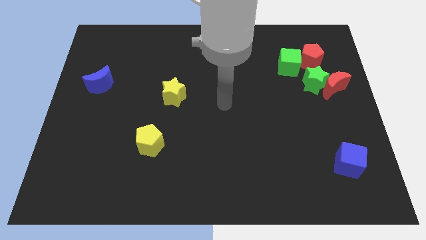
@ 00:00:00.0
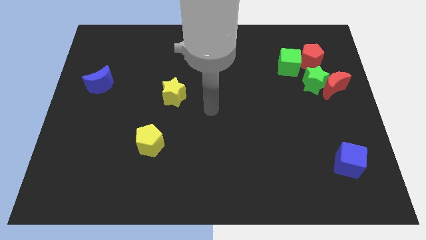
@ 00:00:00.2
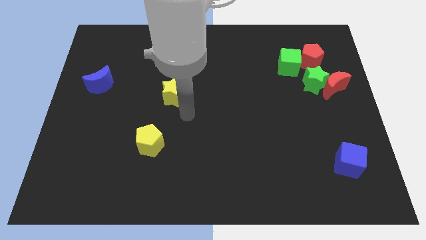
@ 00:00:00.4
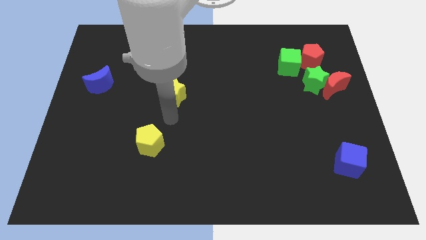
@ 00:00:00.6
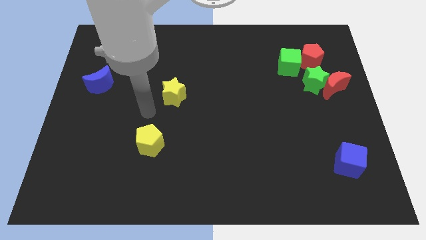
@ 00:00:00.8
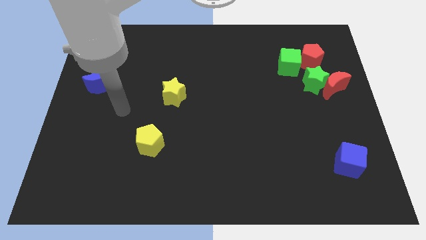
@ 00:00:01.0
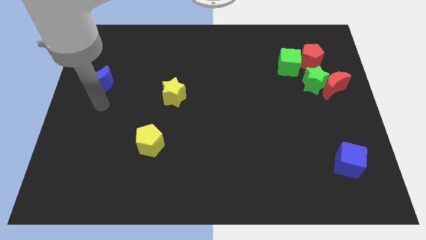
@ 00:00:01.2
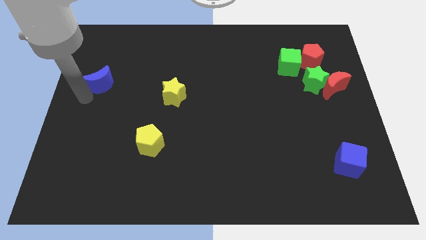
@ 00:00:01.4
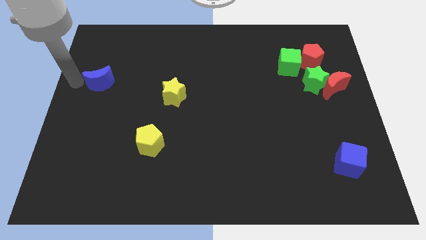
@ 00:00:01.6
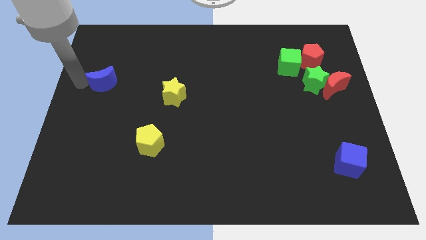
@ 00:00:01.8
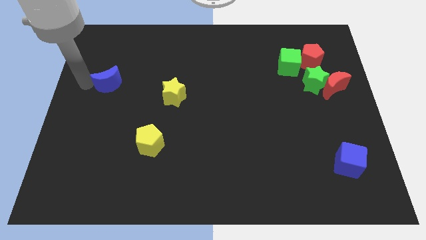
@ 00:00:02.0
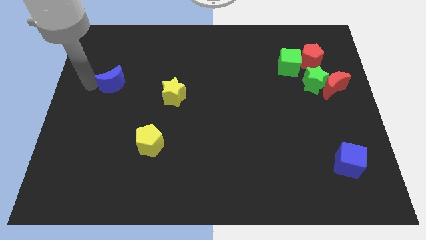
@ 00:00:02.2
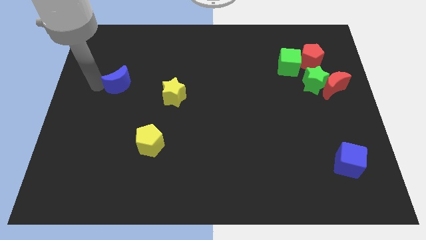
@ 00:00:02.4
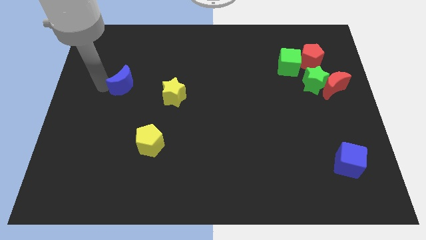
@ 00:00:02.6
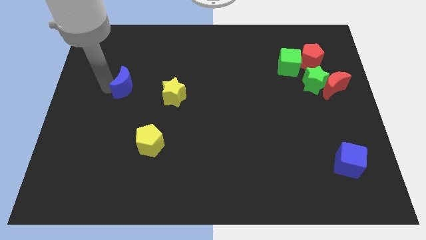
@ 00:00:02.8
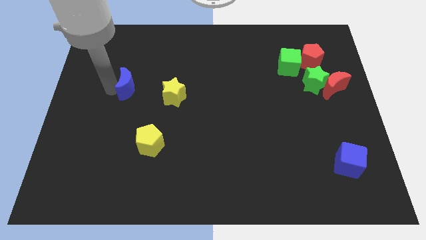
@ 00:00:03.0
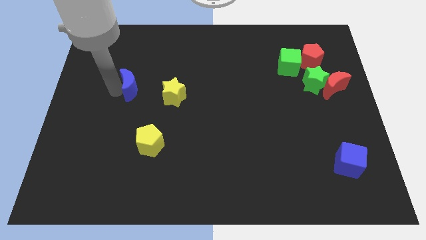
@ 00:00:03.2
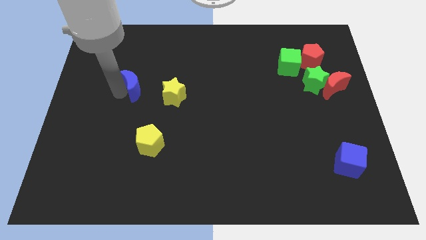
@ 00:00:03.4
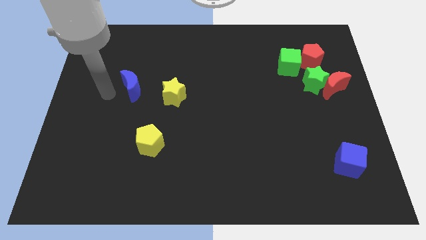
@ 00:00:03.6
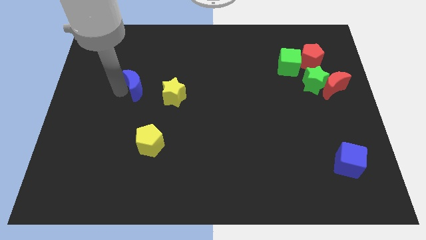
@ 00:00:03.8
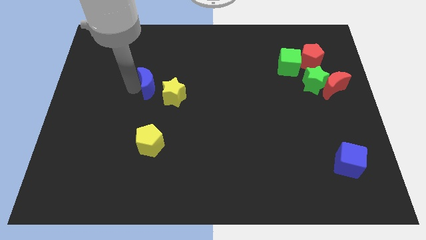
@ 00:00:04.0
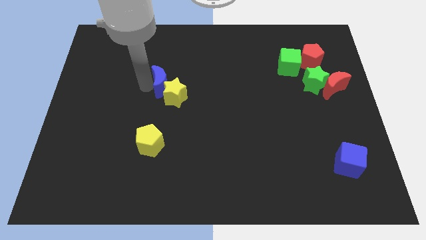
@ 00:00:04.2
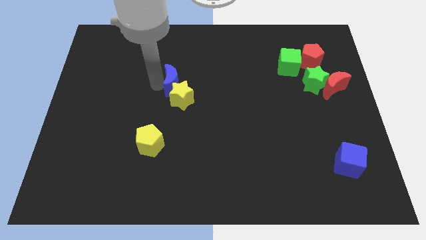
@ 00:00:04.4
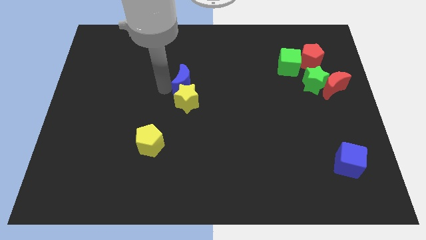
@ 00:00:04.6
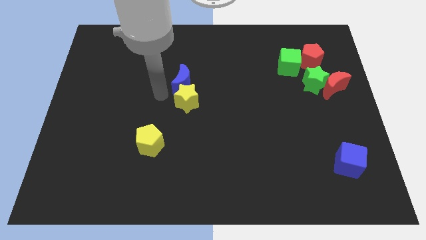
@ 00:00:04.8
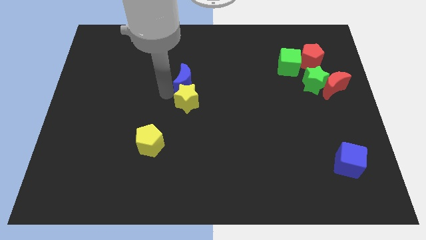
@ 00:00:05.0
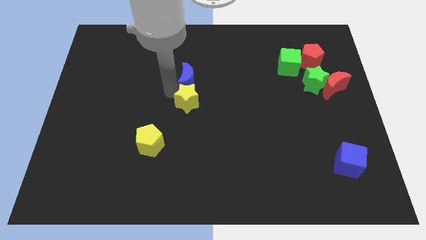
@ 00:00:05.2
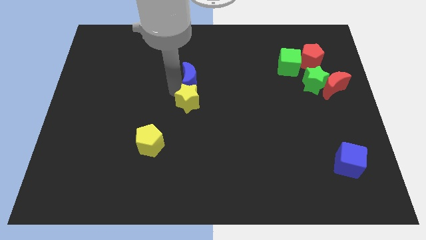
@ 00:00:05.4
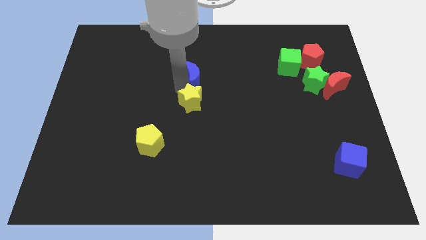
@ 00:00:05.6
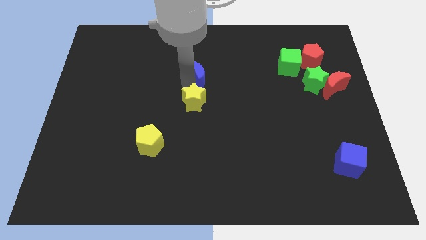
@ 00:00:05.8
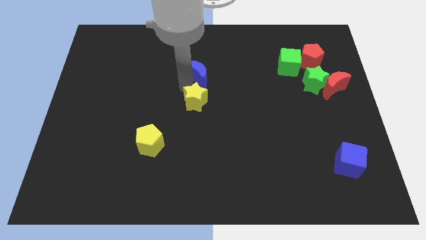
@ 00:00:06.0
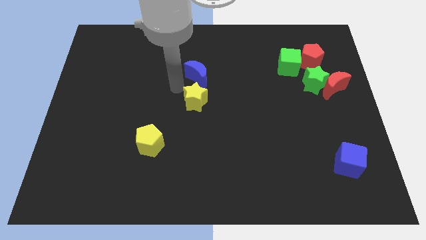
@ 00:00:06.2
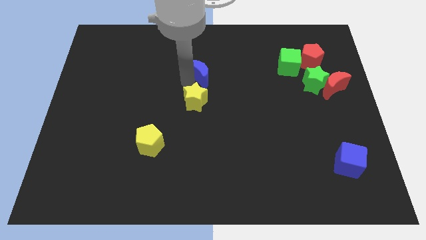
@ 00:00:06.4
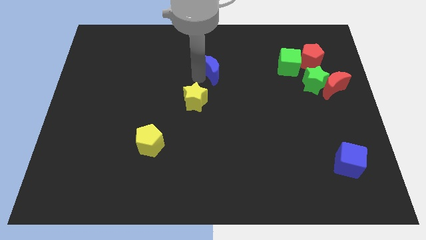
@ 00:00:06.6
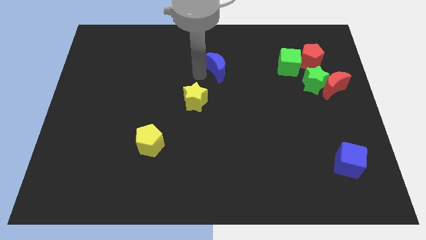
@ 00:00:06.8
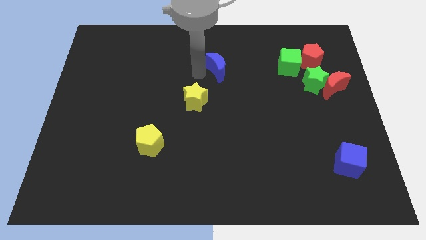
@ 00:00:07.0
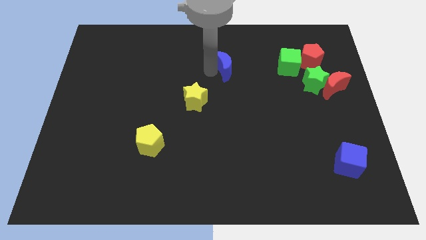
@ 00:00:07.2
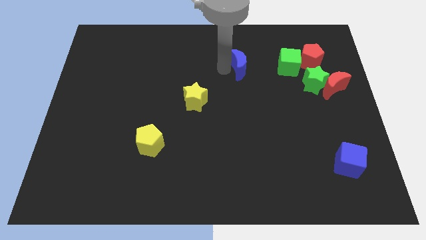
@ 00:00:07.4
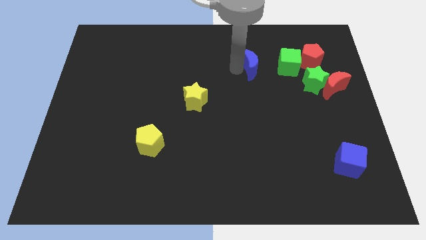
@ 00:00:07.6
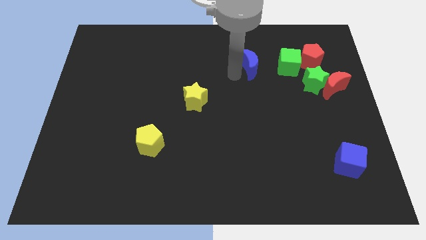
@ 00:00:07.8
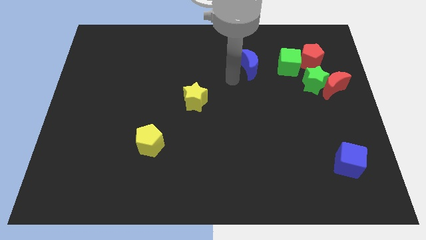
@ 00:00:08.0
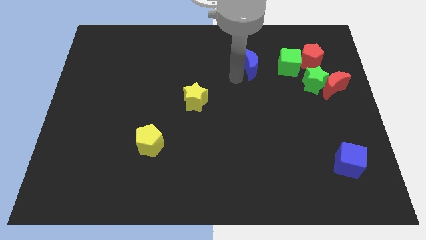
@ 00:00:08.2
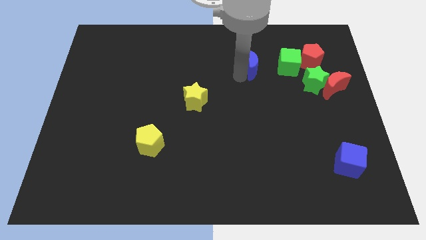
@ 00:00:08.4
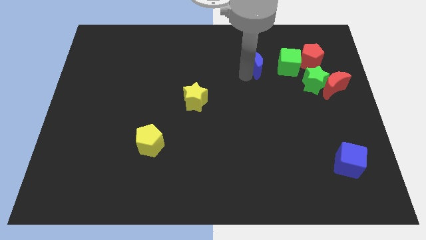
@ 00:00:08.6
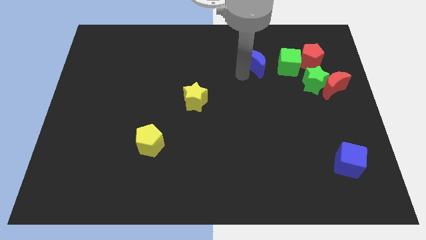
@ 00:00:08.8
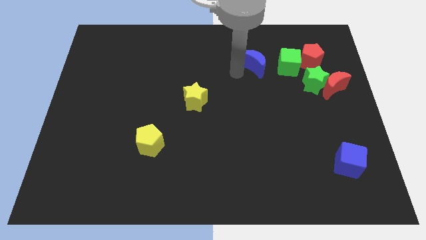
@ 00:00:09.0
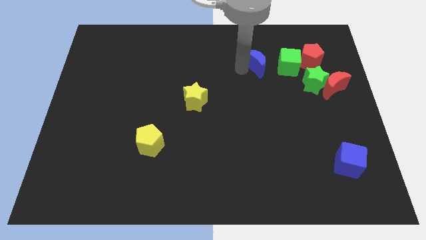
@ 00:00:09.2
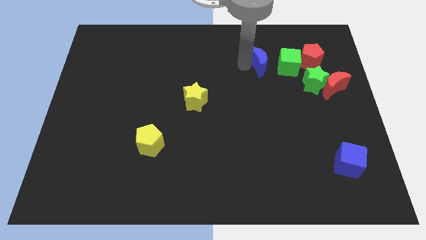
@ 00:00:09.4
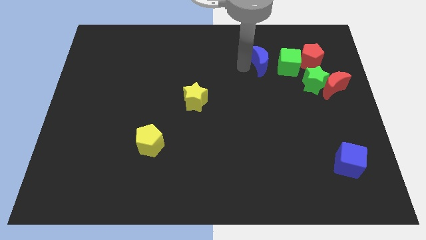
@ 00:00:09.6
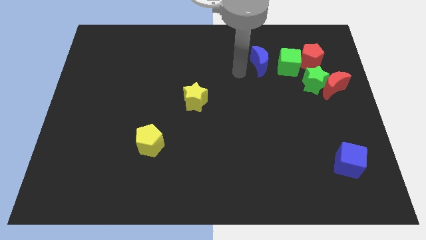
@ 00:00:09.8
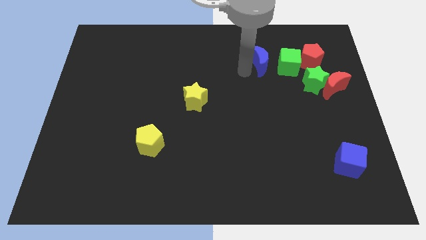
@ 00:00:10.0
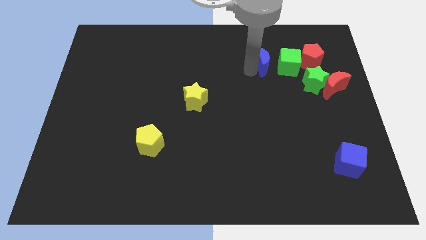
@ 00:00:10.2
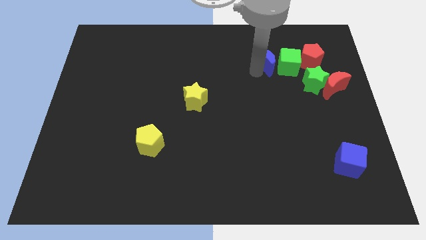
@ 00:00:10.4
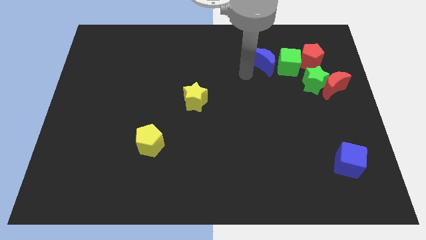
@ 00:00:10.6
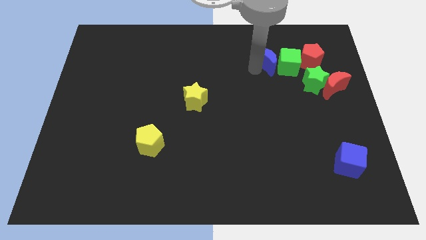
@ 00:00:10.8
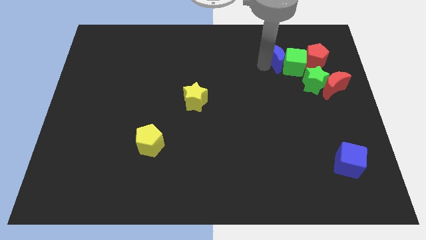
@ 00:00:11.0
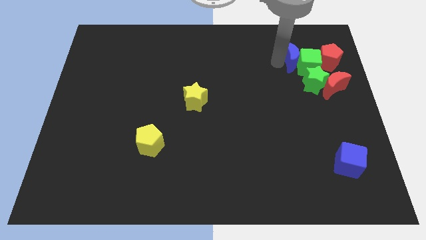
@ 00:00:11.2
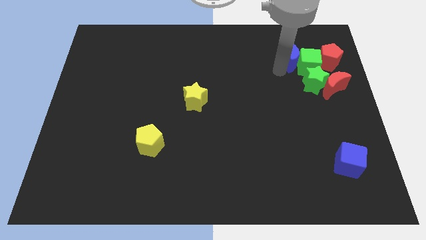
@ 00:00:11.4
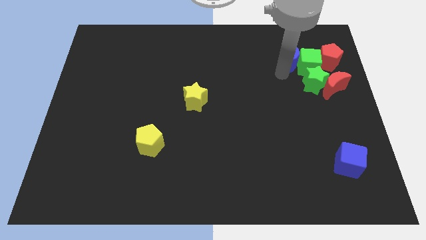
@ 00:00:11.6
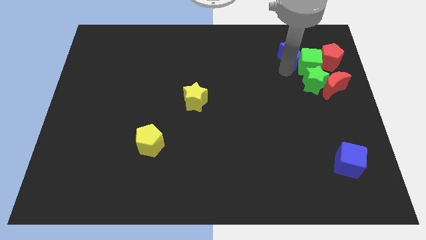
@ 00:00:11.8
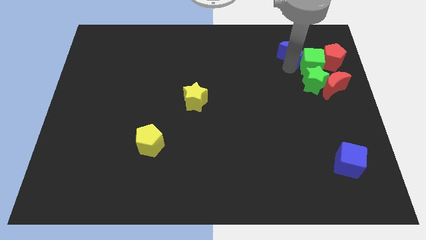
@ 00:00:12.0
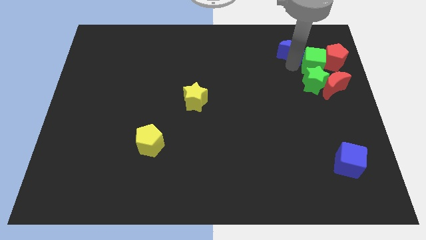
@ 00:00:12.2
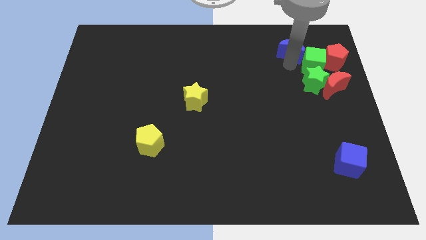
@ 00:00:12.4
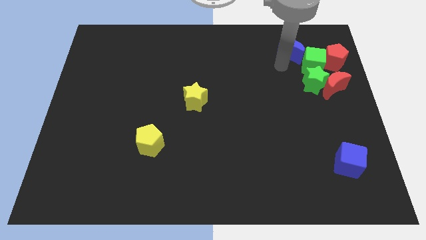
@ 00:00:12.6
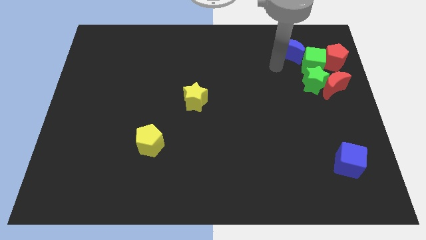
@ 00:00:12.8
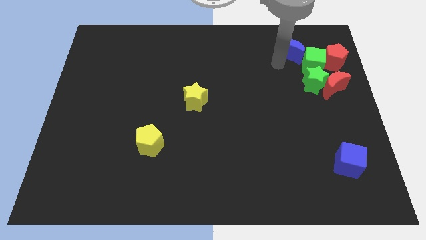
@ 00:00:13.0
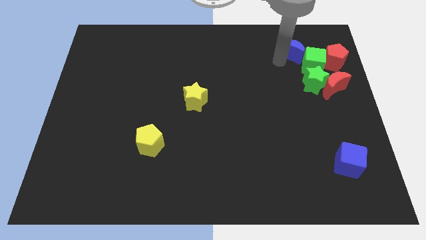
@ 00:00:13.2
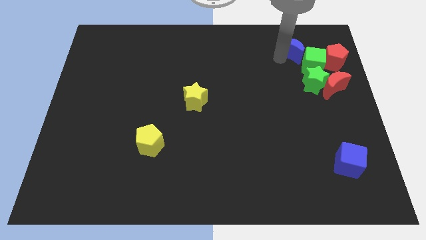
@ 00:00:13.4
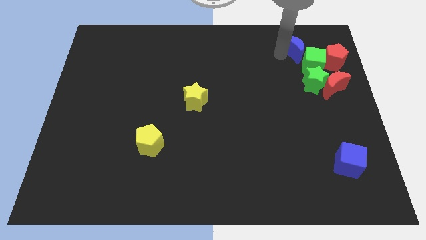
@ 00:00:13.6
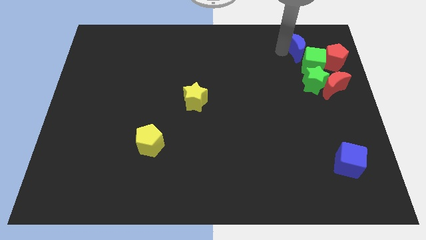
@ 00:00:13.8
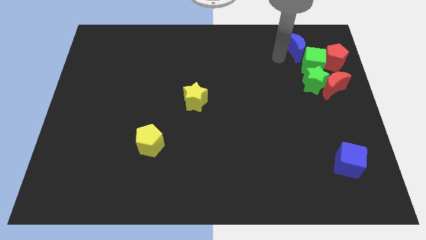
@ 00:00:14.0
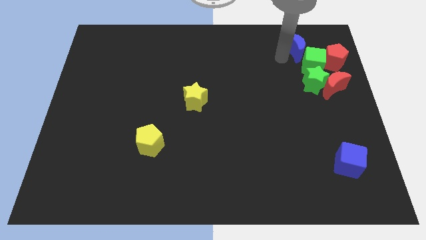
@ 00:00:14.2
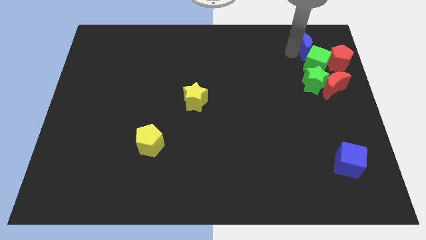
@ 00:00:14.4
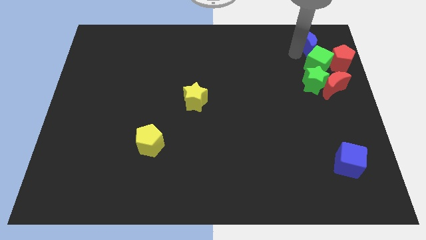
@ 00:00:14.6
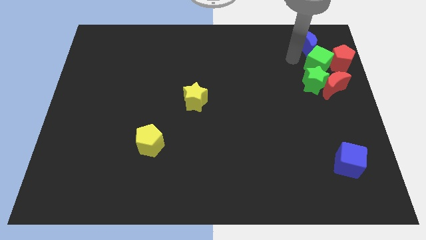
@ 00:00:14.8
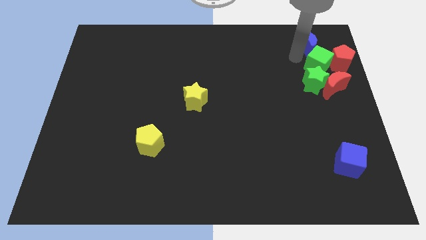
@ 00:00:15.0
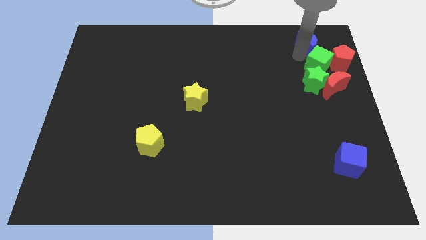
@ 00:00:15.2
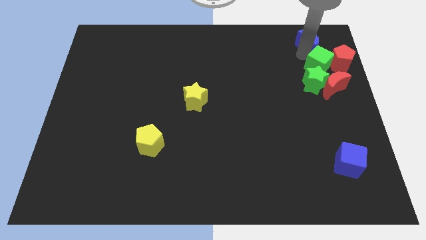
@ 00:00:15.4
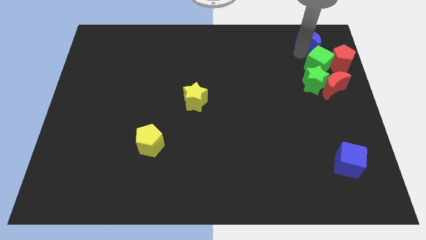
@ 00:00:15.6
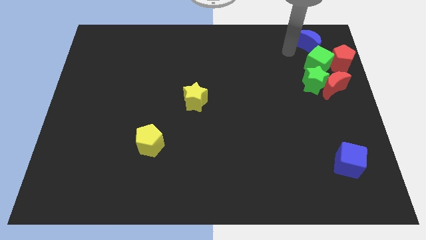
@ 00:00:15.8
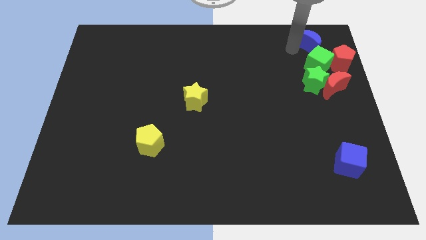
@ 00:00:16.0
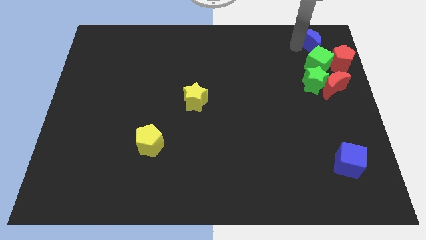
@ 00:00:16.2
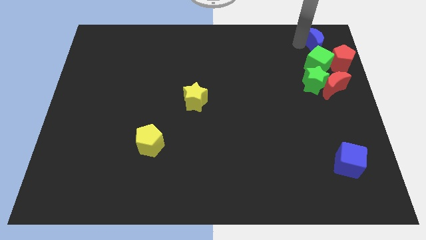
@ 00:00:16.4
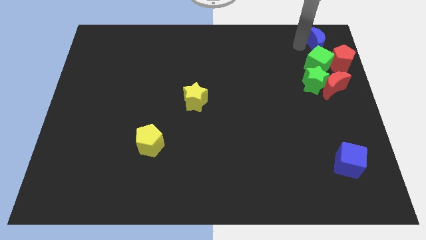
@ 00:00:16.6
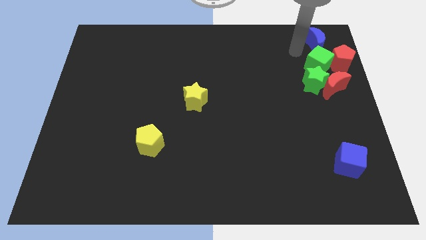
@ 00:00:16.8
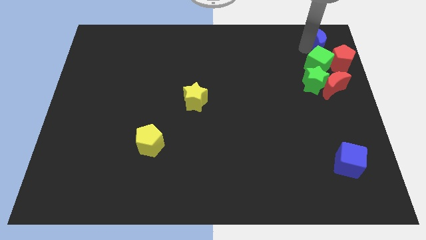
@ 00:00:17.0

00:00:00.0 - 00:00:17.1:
slide the blue moon to the top right of the board
